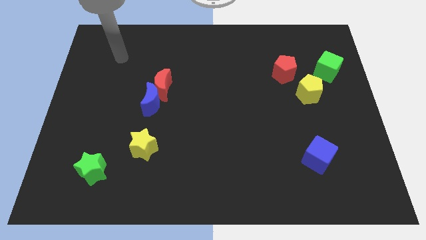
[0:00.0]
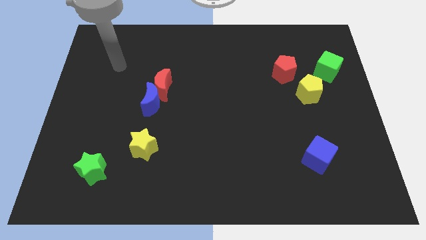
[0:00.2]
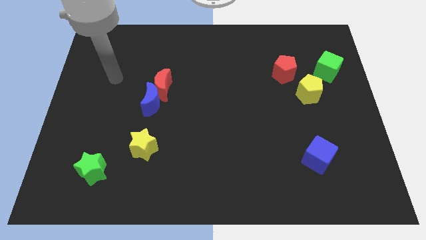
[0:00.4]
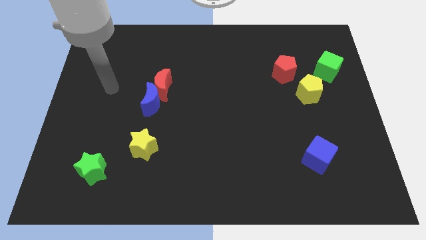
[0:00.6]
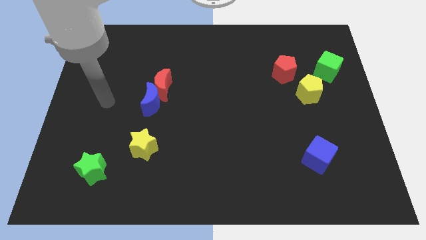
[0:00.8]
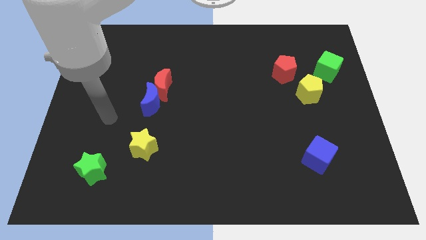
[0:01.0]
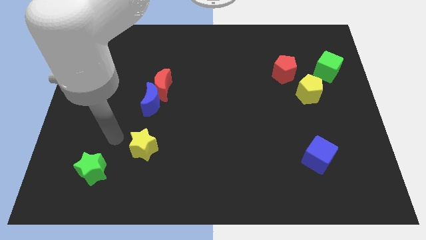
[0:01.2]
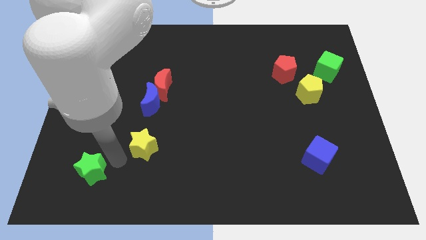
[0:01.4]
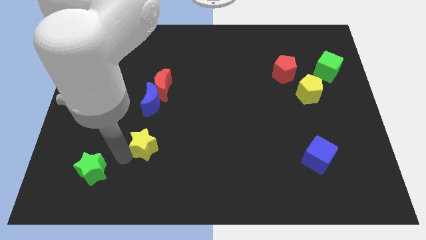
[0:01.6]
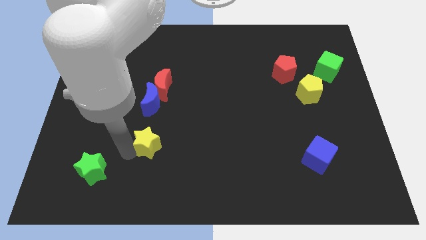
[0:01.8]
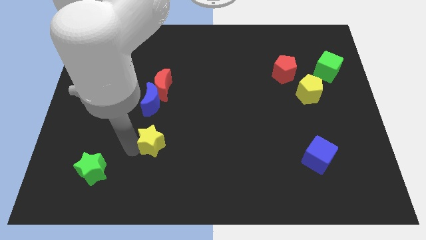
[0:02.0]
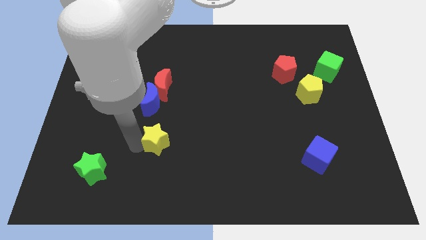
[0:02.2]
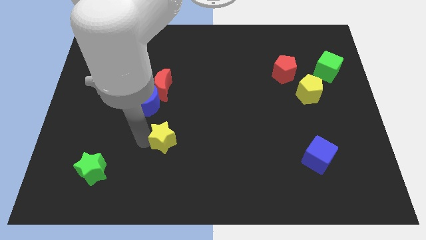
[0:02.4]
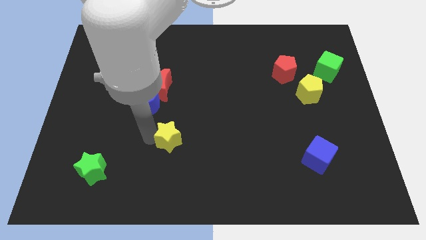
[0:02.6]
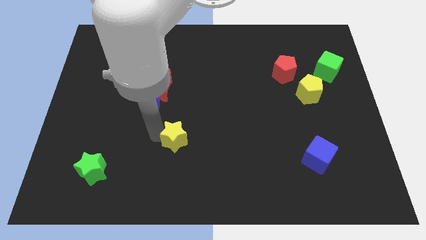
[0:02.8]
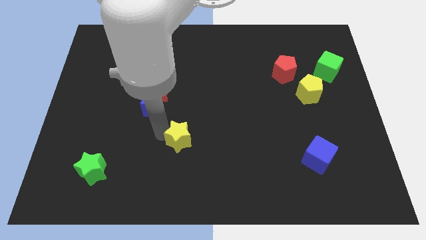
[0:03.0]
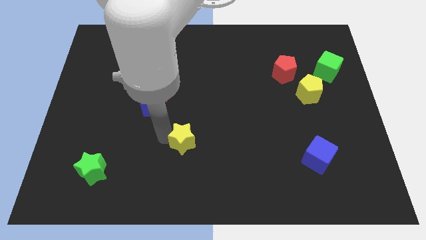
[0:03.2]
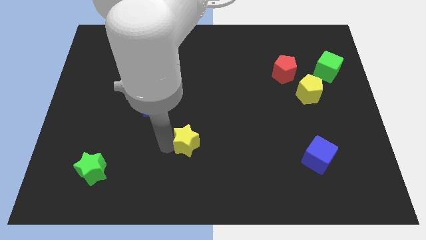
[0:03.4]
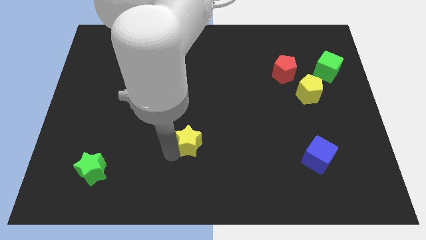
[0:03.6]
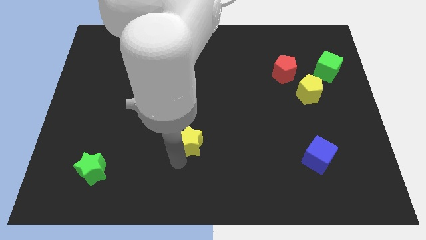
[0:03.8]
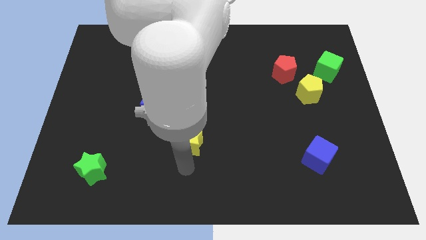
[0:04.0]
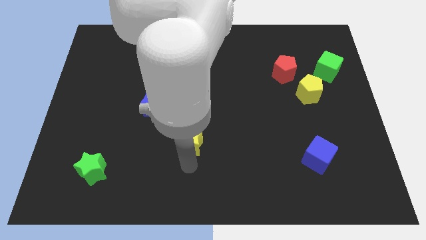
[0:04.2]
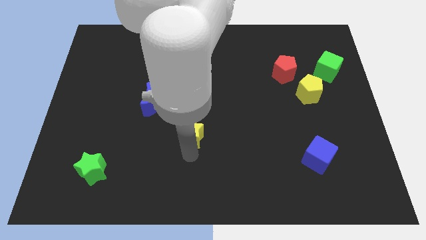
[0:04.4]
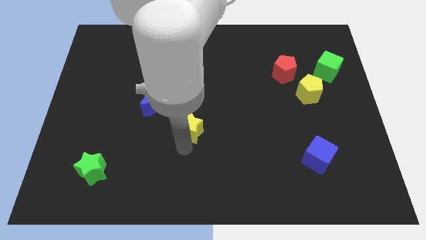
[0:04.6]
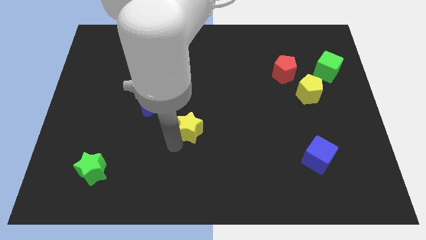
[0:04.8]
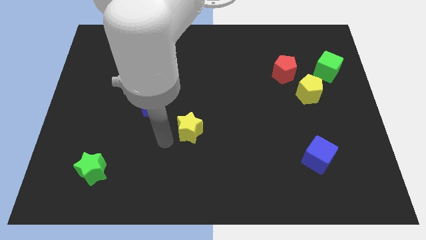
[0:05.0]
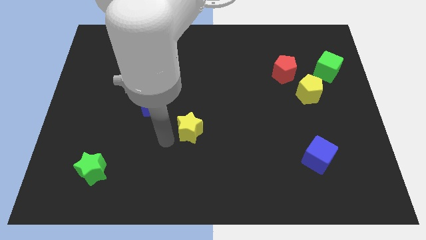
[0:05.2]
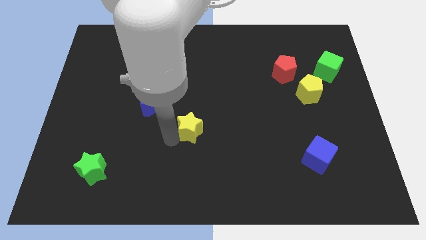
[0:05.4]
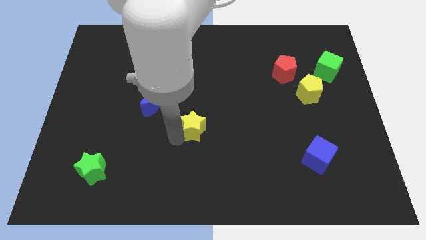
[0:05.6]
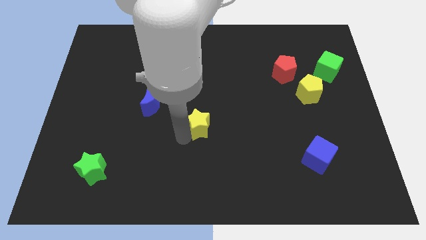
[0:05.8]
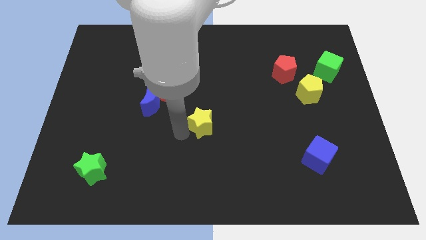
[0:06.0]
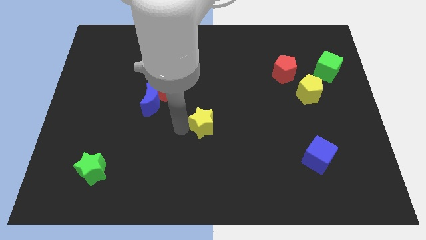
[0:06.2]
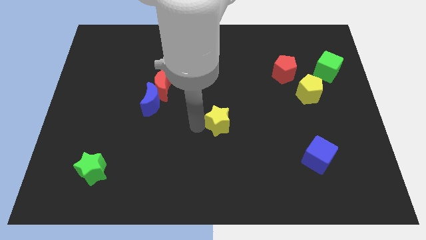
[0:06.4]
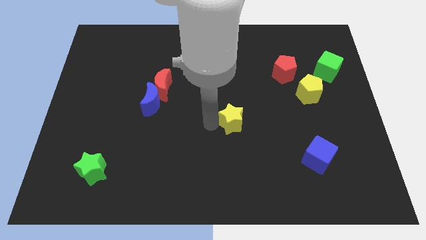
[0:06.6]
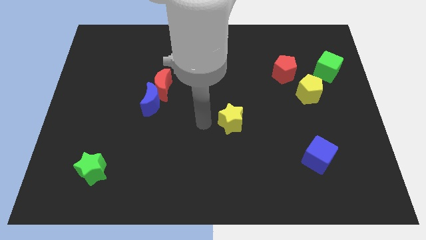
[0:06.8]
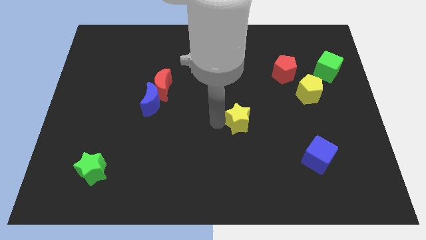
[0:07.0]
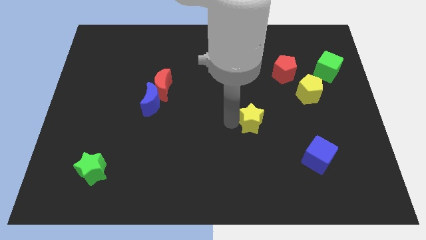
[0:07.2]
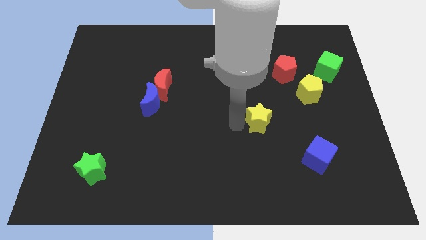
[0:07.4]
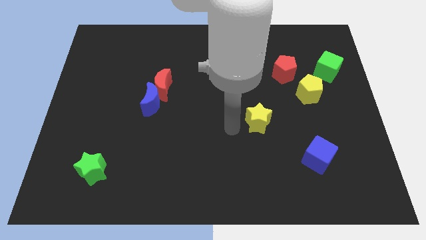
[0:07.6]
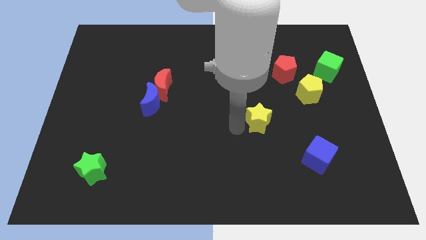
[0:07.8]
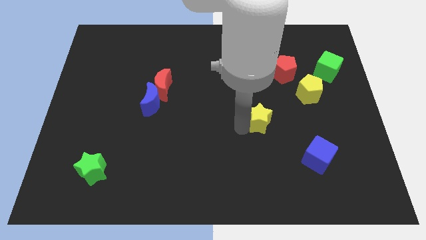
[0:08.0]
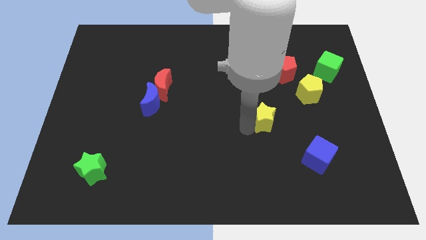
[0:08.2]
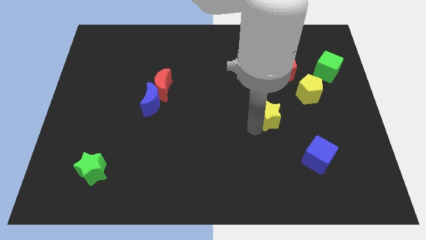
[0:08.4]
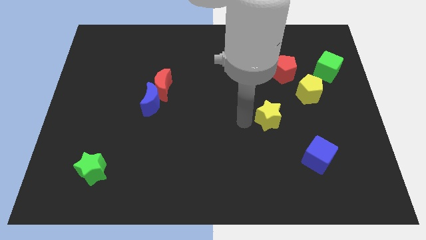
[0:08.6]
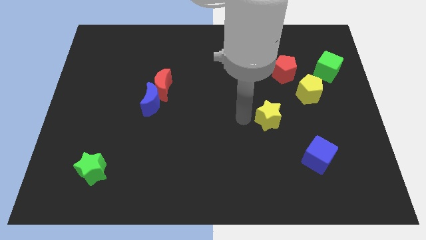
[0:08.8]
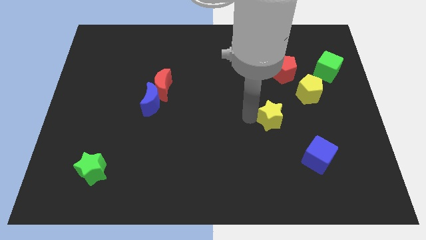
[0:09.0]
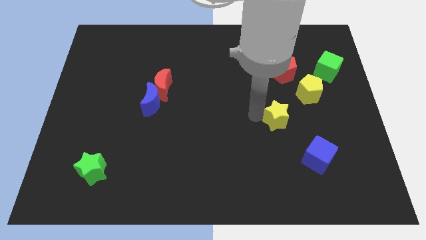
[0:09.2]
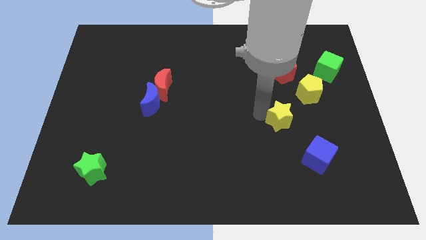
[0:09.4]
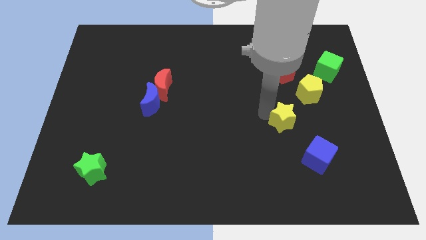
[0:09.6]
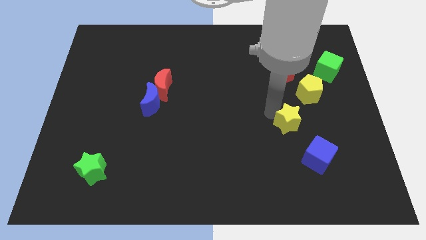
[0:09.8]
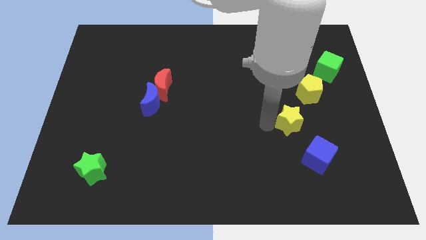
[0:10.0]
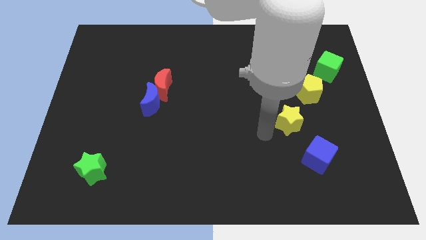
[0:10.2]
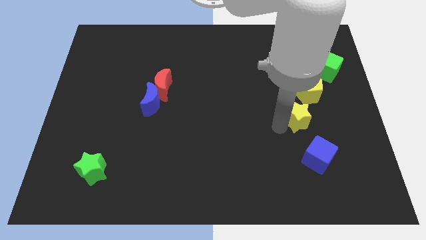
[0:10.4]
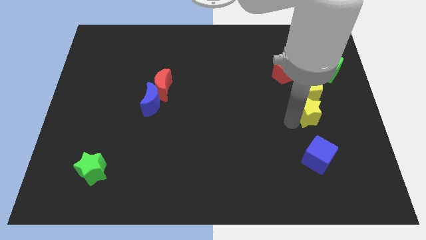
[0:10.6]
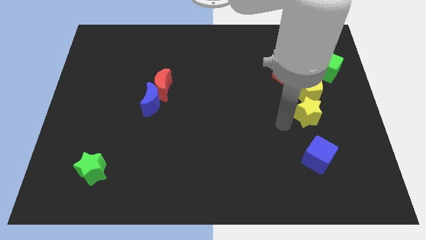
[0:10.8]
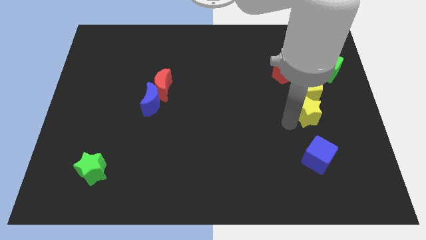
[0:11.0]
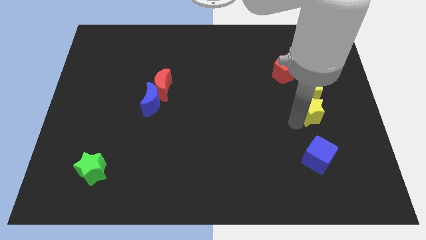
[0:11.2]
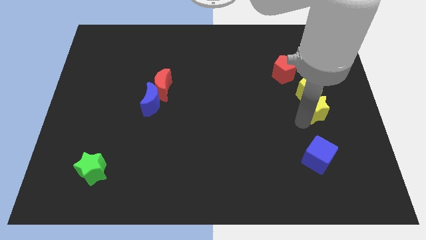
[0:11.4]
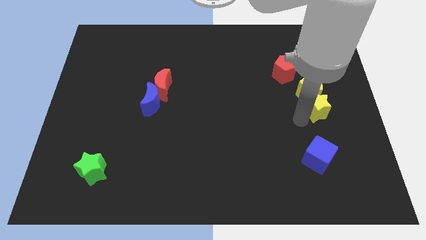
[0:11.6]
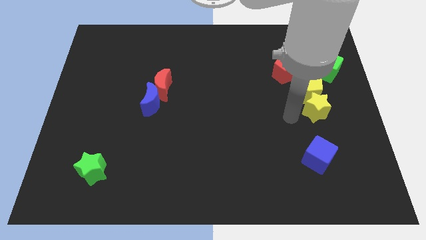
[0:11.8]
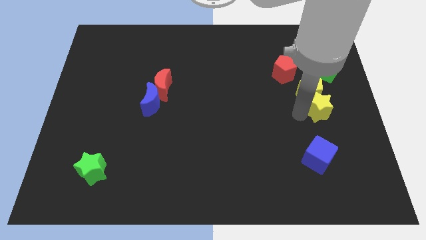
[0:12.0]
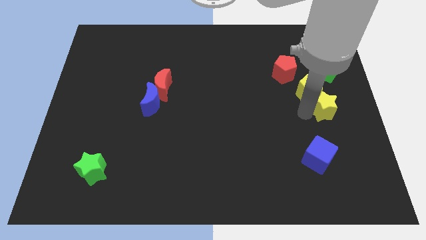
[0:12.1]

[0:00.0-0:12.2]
push the yellow star to the right side

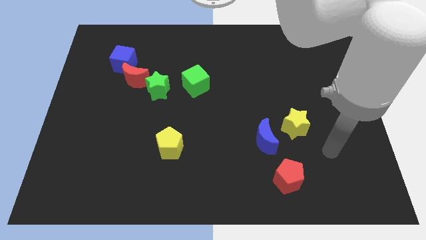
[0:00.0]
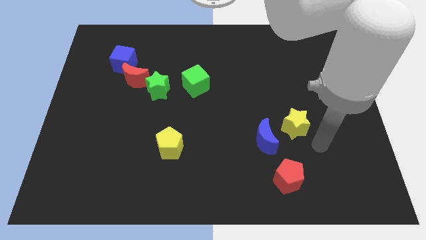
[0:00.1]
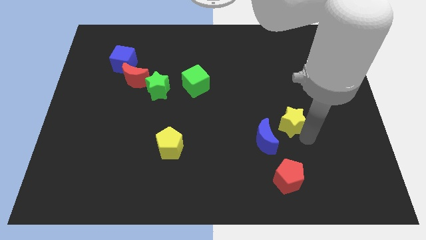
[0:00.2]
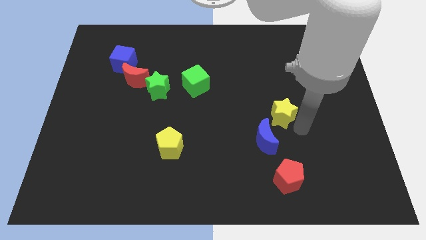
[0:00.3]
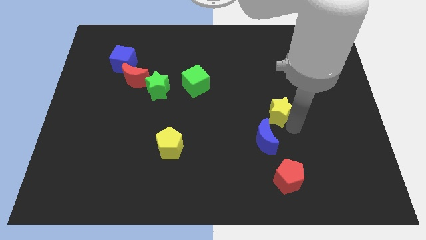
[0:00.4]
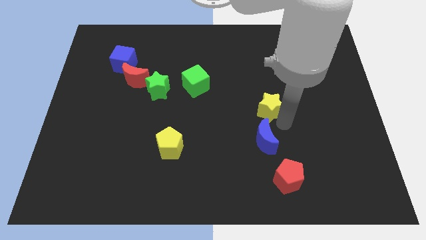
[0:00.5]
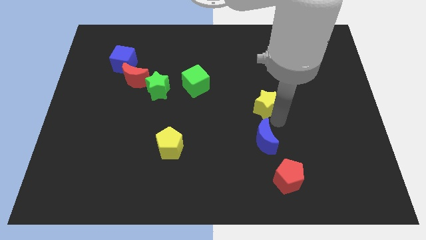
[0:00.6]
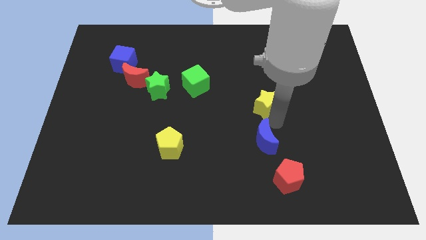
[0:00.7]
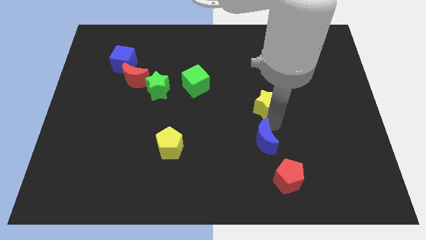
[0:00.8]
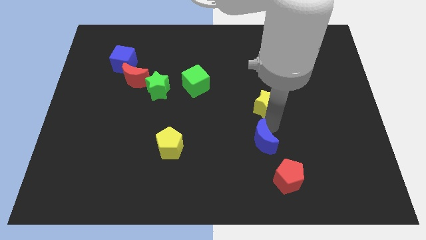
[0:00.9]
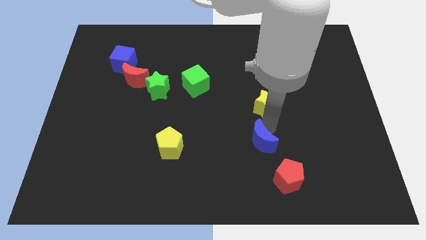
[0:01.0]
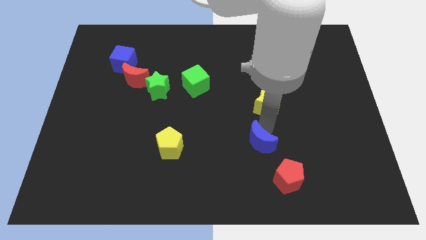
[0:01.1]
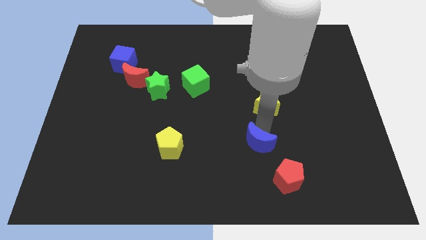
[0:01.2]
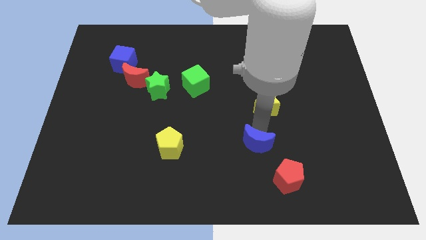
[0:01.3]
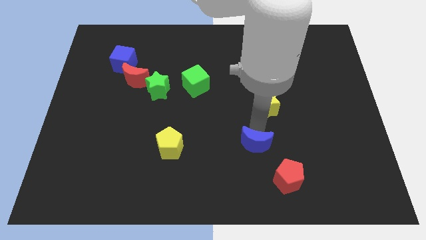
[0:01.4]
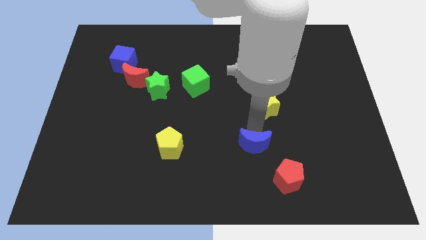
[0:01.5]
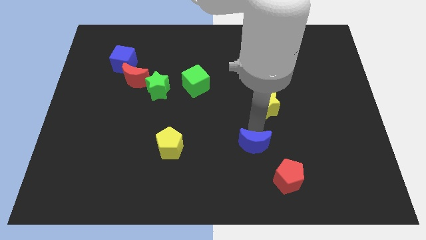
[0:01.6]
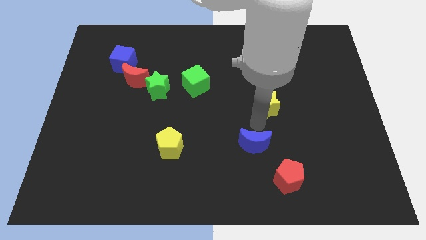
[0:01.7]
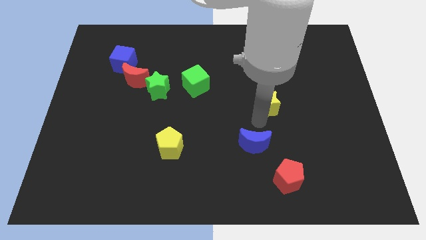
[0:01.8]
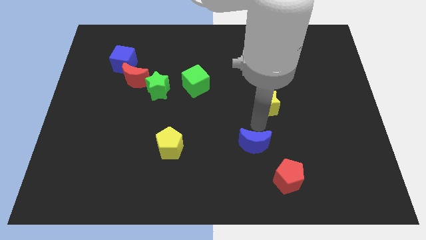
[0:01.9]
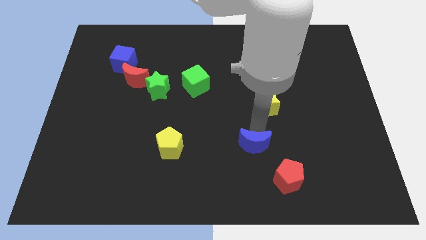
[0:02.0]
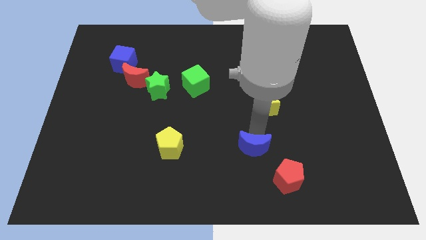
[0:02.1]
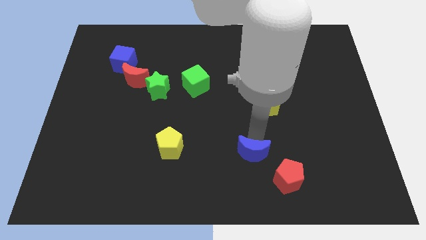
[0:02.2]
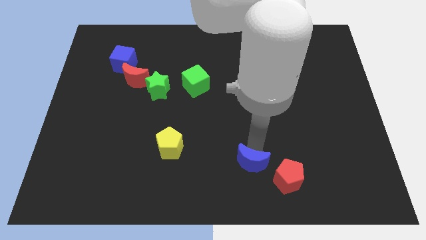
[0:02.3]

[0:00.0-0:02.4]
push the blue moon to the bottom
